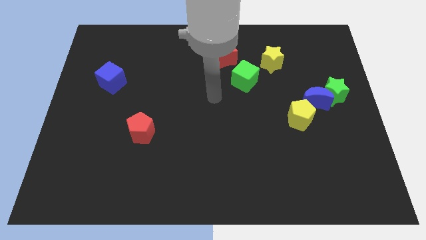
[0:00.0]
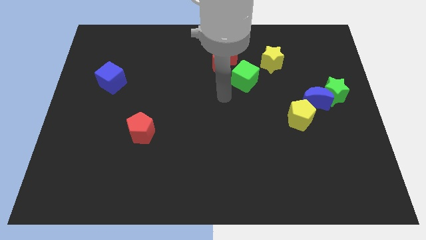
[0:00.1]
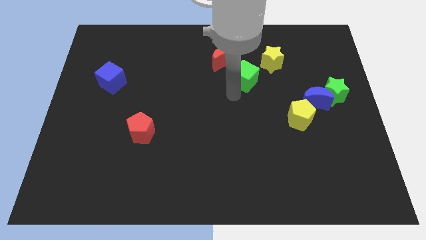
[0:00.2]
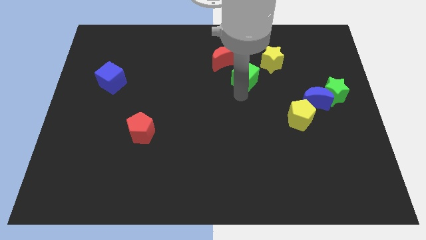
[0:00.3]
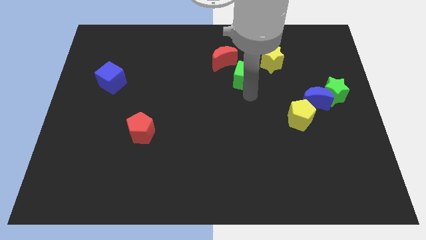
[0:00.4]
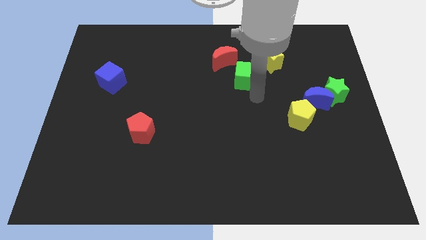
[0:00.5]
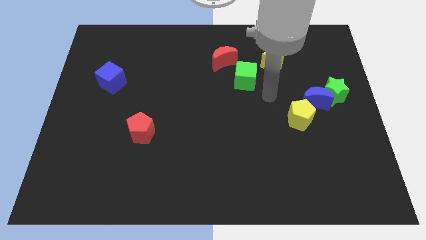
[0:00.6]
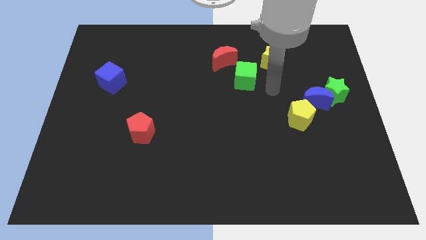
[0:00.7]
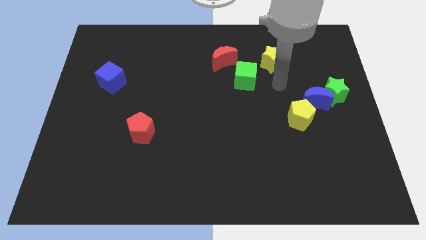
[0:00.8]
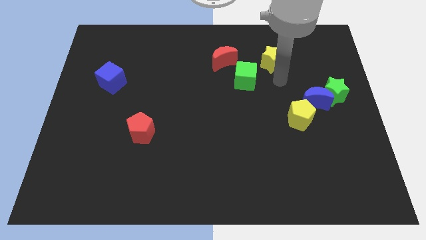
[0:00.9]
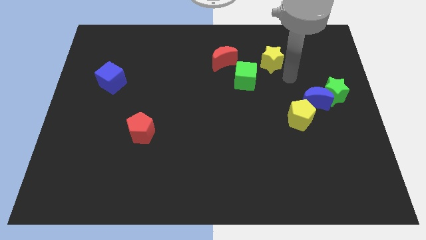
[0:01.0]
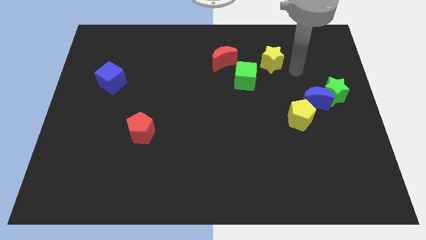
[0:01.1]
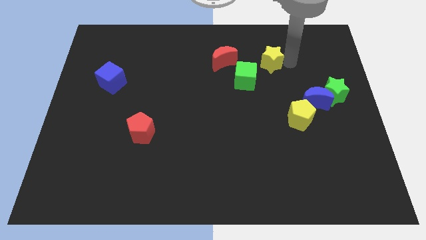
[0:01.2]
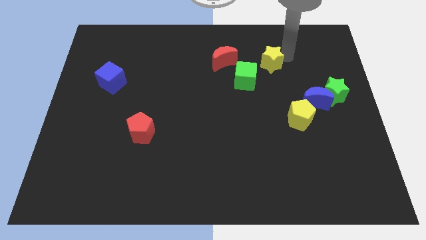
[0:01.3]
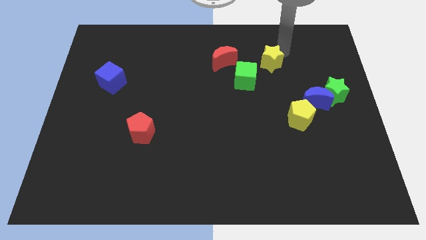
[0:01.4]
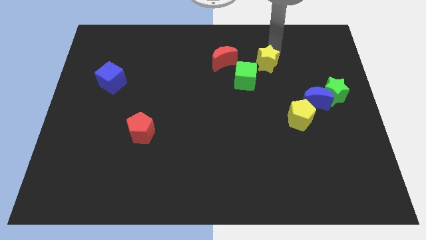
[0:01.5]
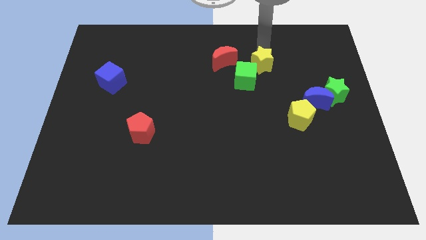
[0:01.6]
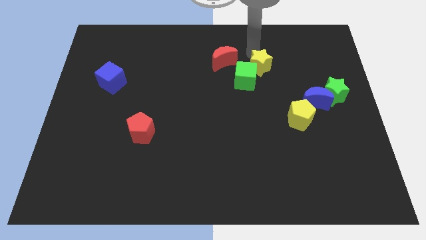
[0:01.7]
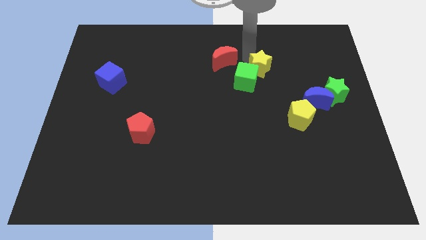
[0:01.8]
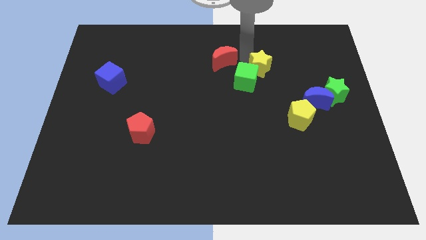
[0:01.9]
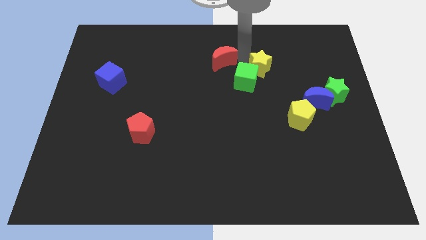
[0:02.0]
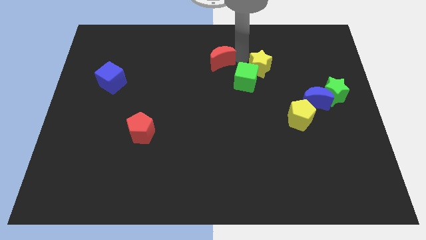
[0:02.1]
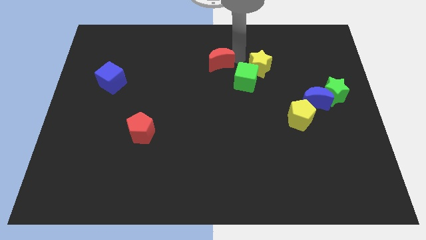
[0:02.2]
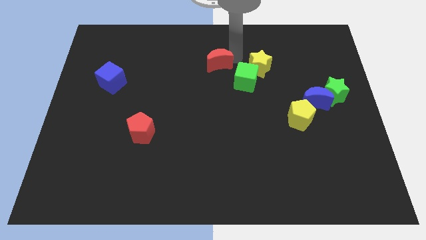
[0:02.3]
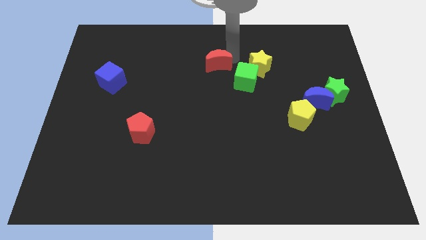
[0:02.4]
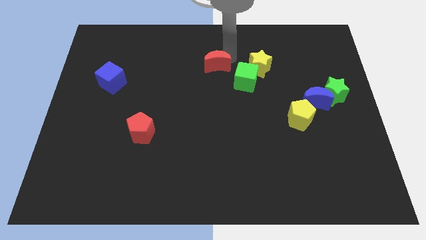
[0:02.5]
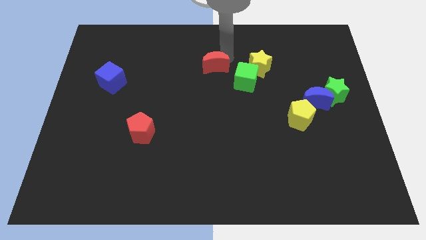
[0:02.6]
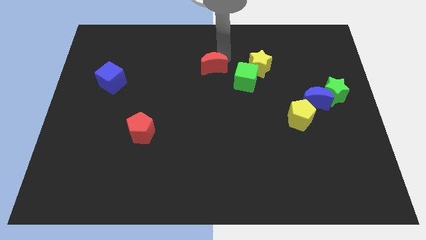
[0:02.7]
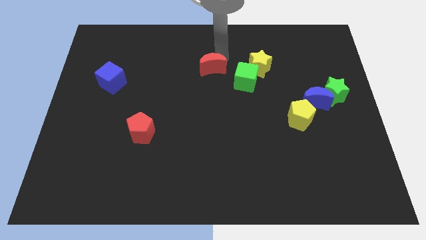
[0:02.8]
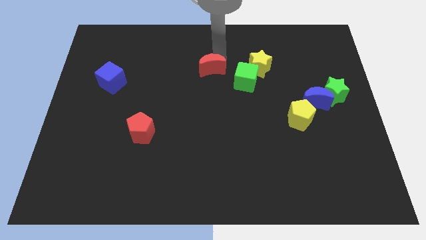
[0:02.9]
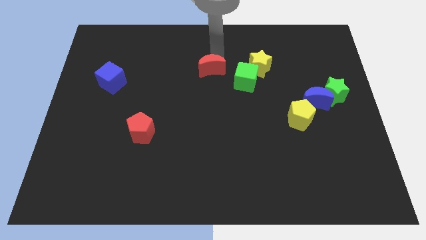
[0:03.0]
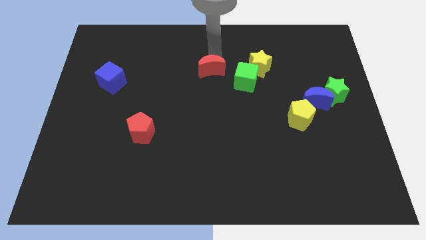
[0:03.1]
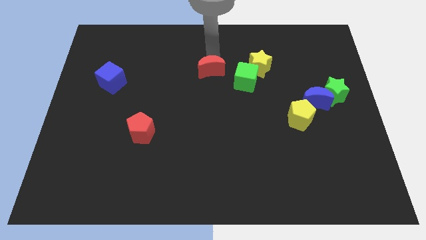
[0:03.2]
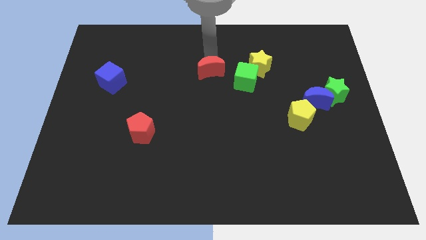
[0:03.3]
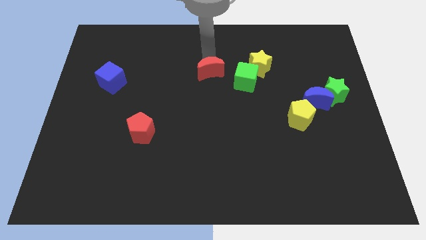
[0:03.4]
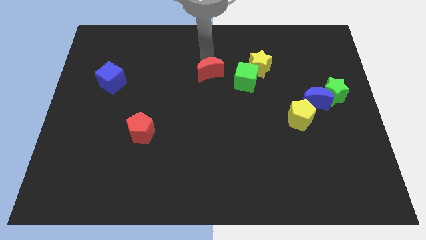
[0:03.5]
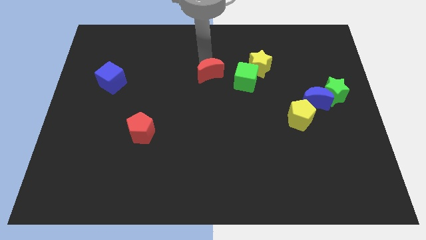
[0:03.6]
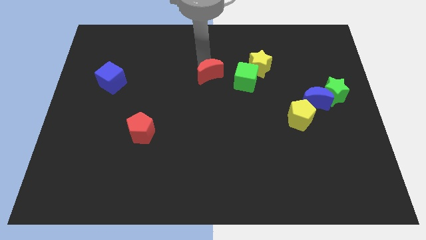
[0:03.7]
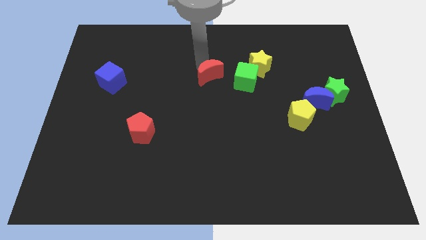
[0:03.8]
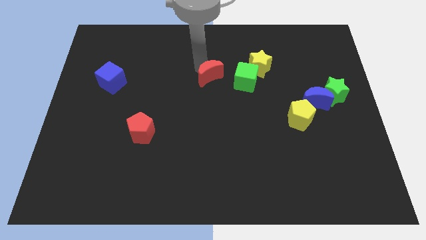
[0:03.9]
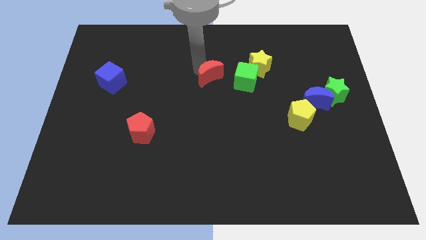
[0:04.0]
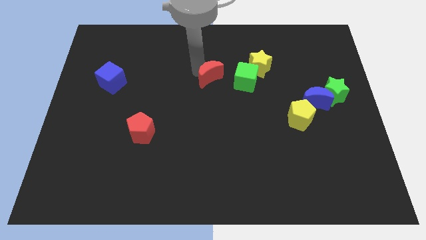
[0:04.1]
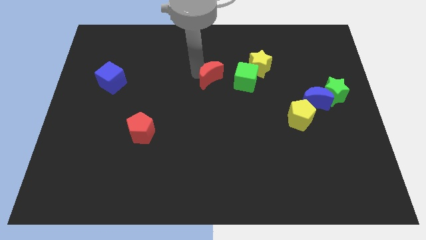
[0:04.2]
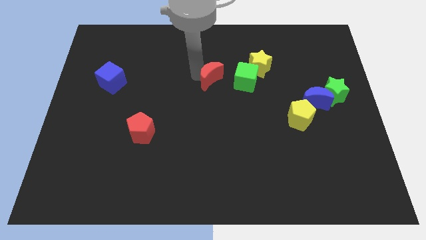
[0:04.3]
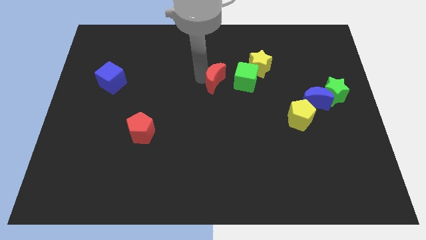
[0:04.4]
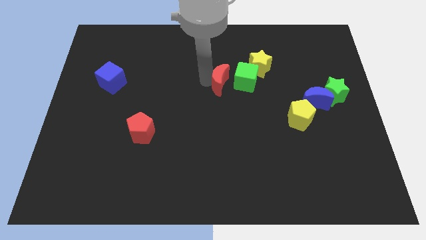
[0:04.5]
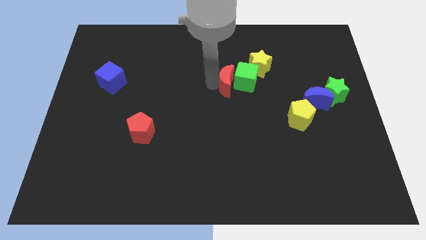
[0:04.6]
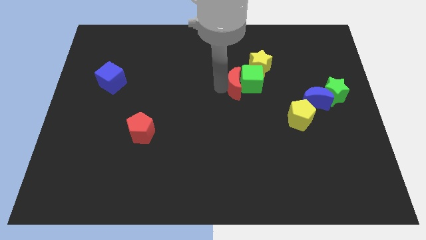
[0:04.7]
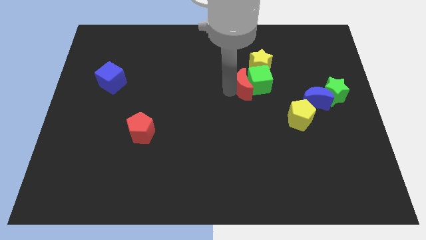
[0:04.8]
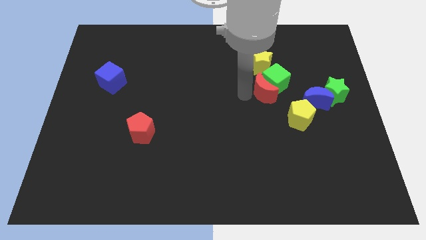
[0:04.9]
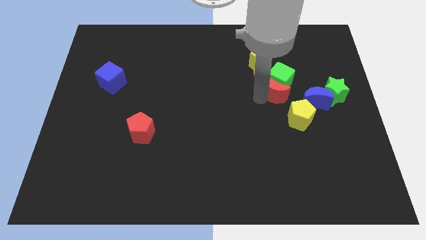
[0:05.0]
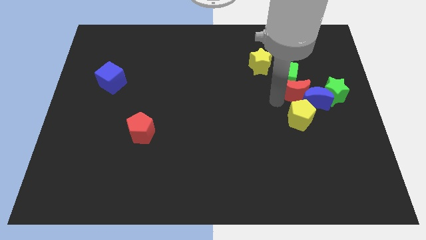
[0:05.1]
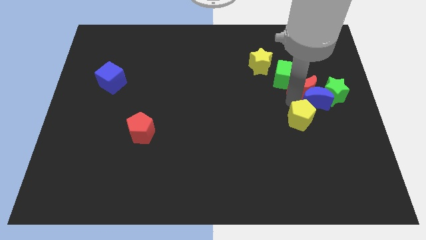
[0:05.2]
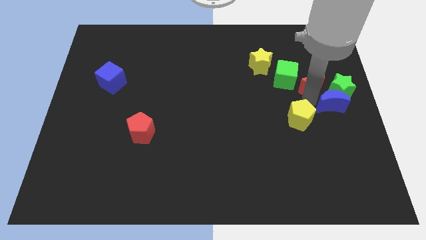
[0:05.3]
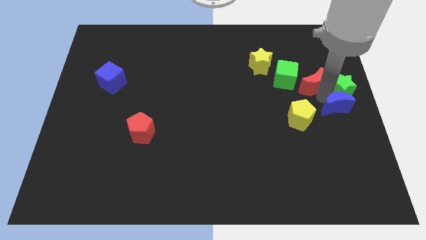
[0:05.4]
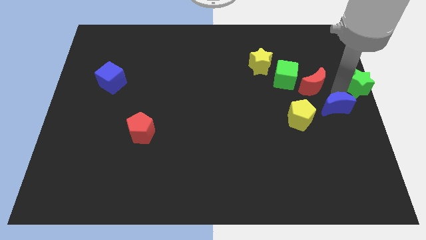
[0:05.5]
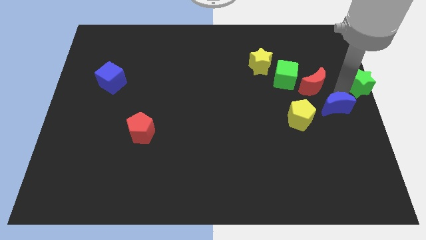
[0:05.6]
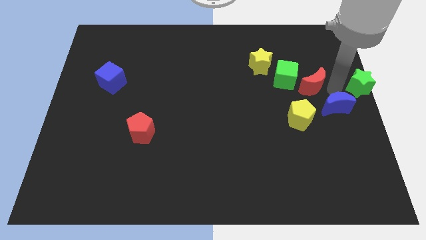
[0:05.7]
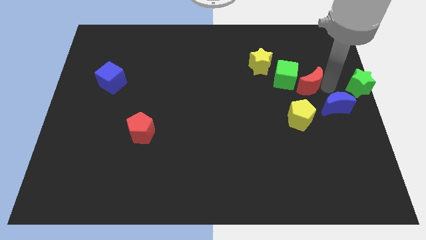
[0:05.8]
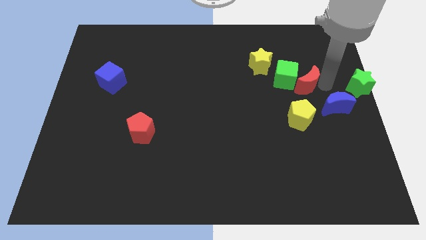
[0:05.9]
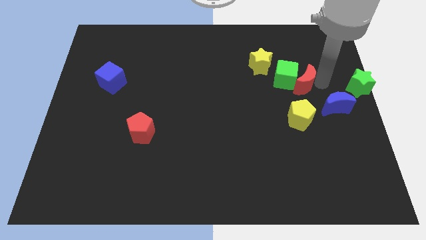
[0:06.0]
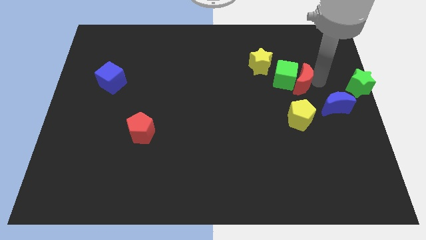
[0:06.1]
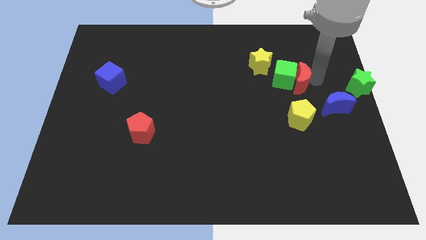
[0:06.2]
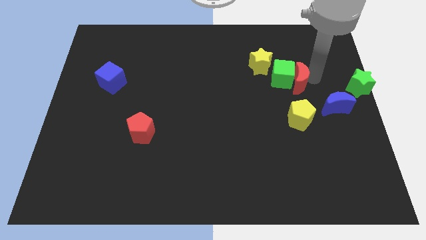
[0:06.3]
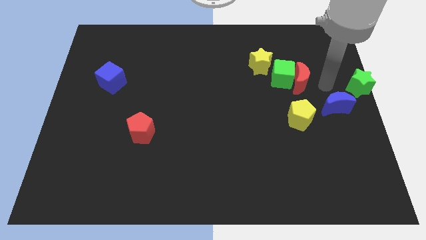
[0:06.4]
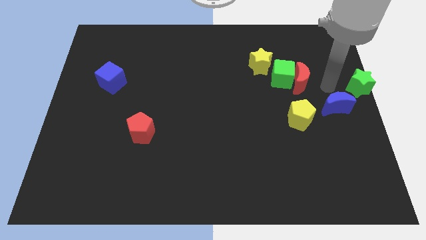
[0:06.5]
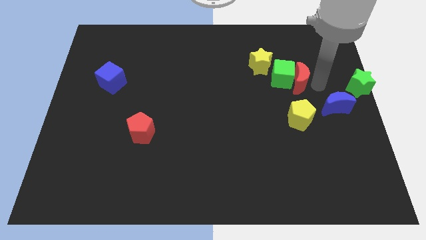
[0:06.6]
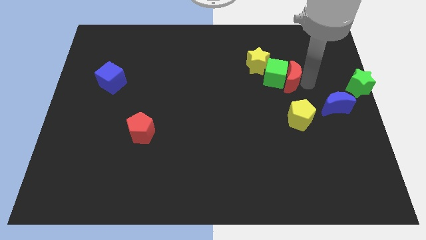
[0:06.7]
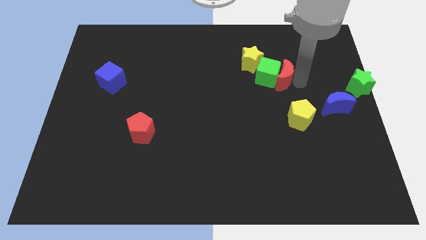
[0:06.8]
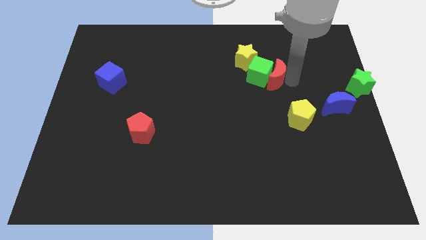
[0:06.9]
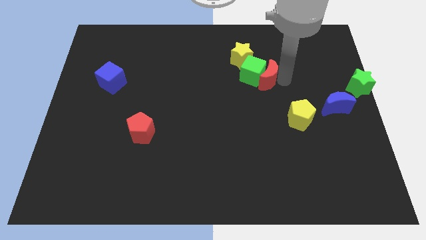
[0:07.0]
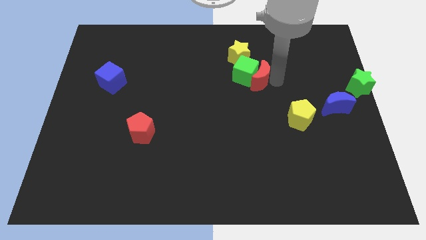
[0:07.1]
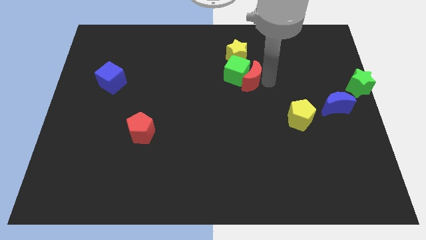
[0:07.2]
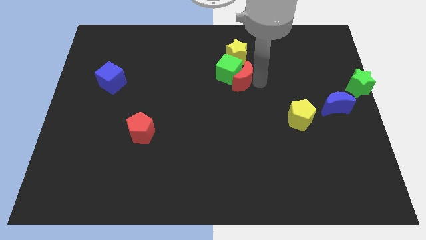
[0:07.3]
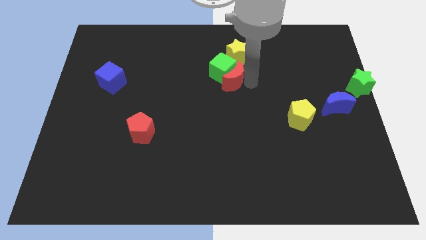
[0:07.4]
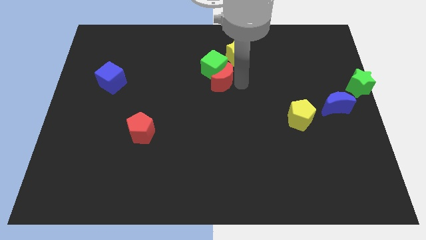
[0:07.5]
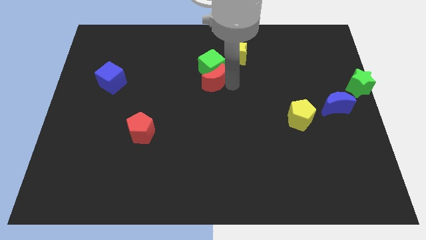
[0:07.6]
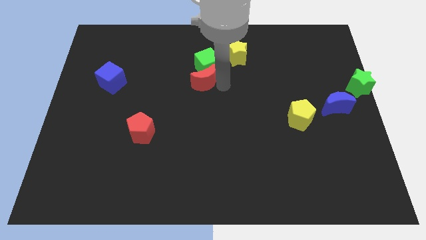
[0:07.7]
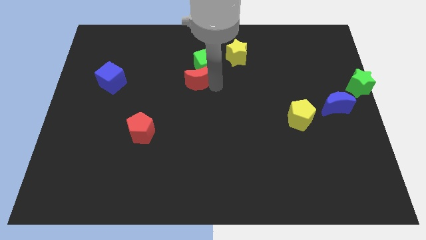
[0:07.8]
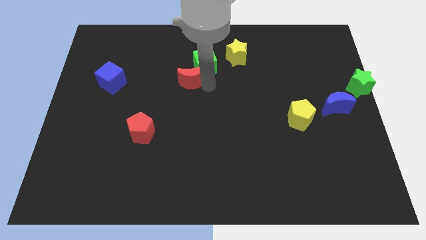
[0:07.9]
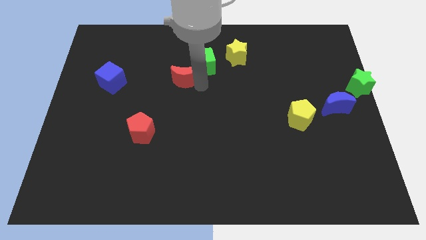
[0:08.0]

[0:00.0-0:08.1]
slightly move the red moon left
